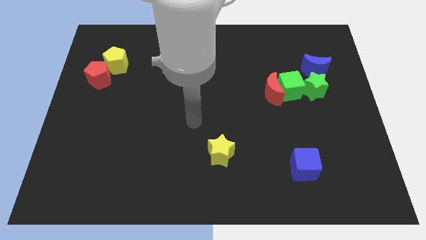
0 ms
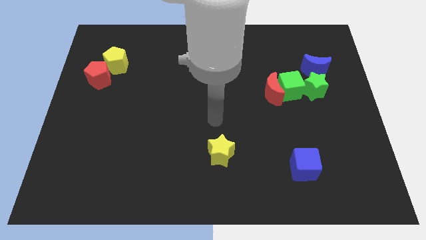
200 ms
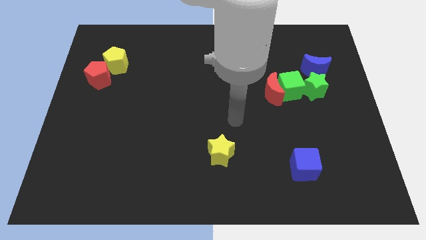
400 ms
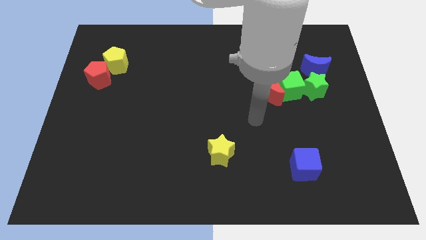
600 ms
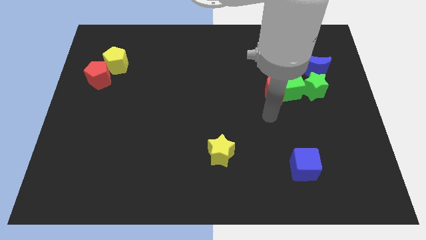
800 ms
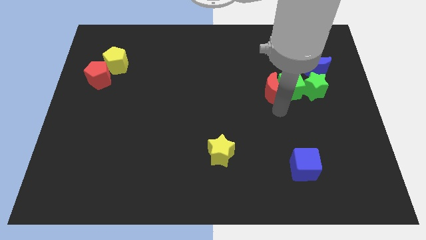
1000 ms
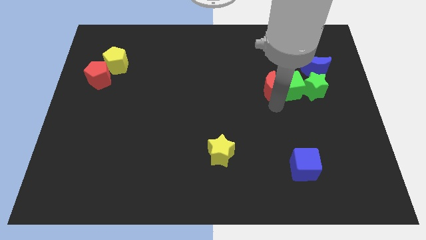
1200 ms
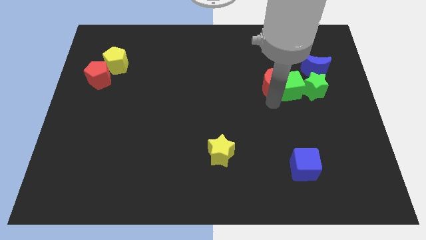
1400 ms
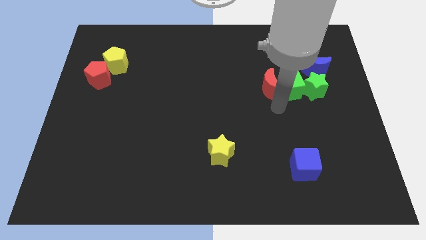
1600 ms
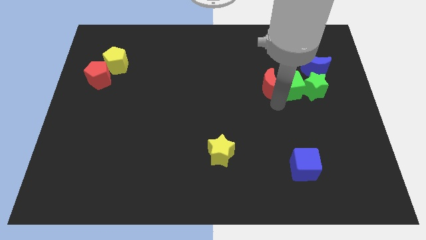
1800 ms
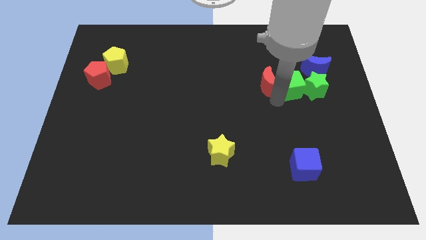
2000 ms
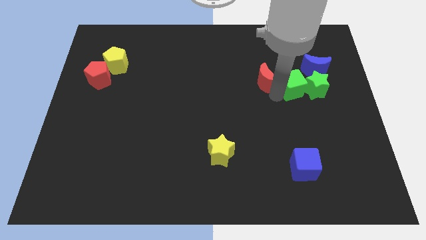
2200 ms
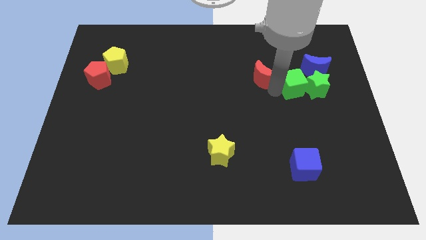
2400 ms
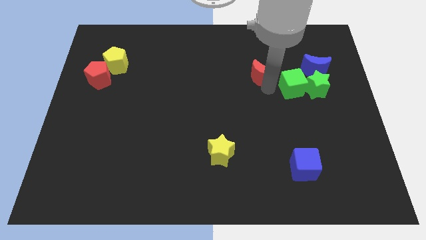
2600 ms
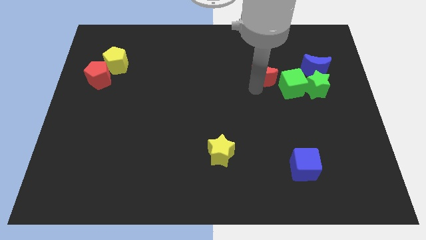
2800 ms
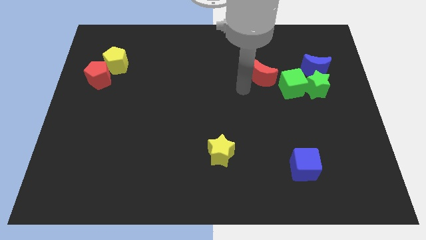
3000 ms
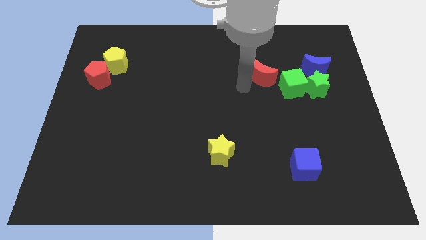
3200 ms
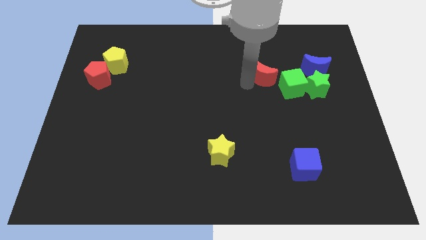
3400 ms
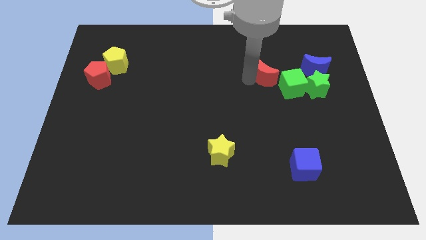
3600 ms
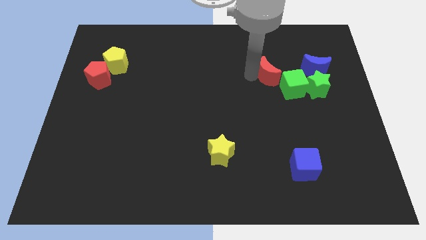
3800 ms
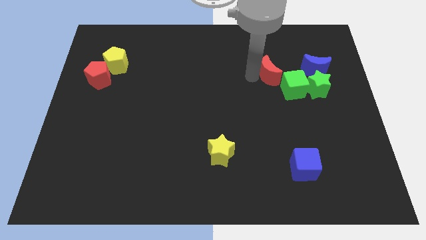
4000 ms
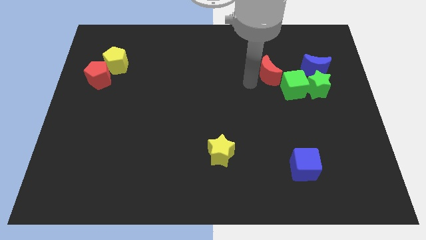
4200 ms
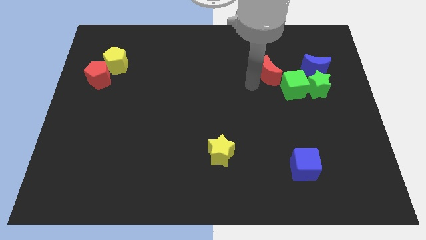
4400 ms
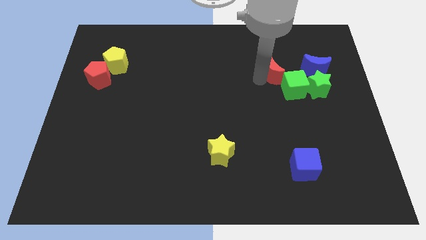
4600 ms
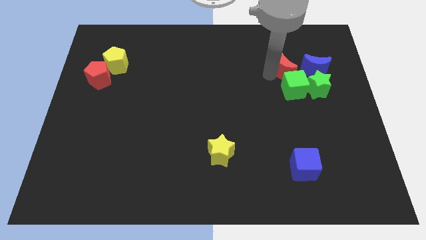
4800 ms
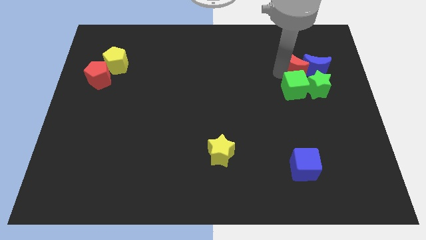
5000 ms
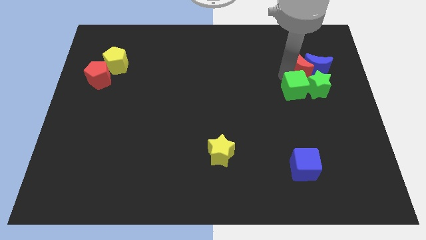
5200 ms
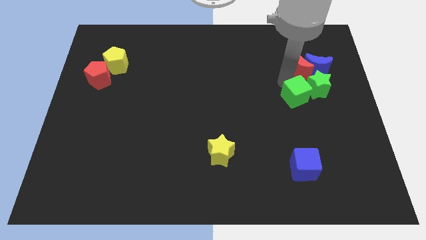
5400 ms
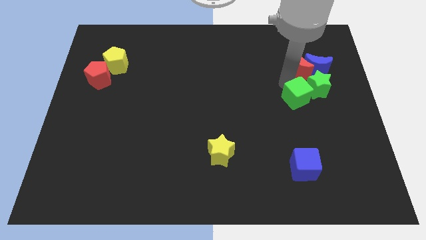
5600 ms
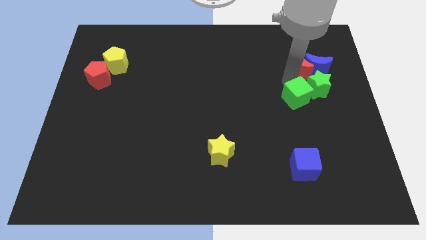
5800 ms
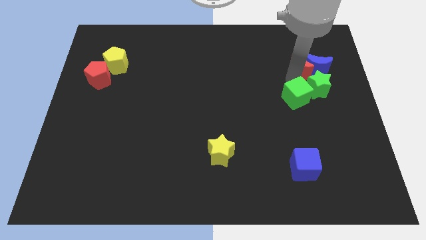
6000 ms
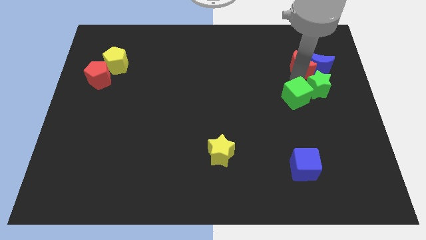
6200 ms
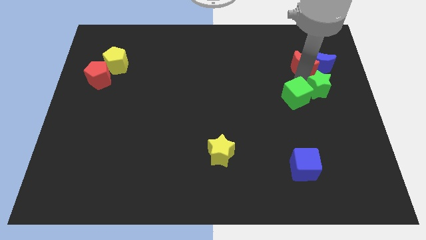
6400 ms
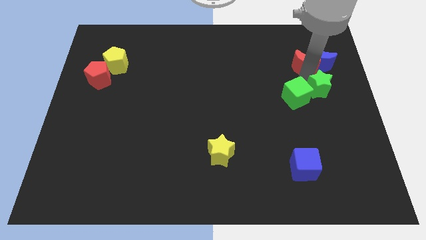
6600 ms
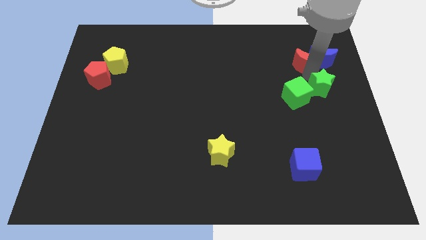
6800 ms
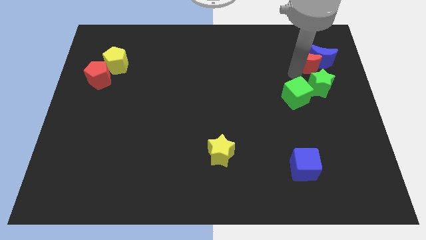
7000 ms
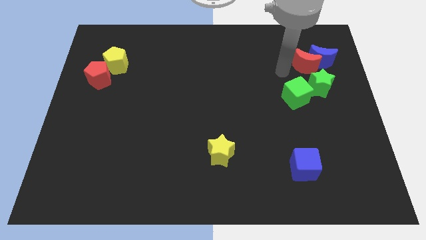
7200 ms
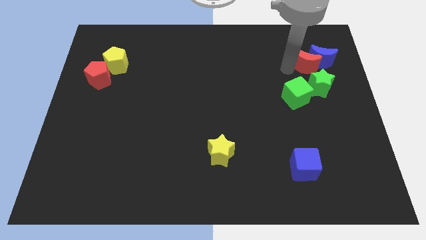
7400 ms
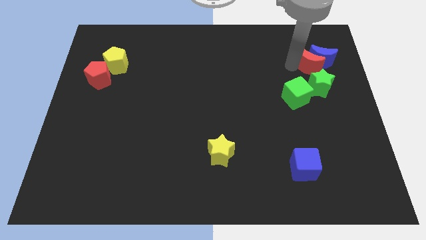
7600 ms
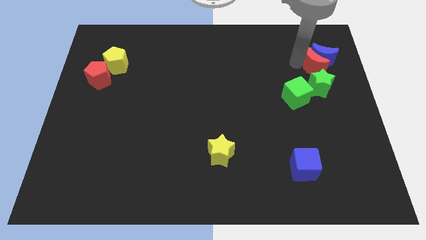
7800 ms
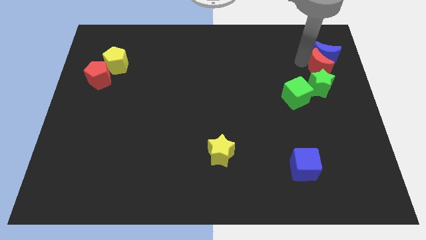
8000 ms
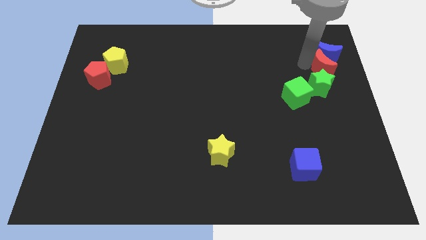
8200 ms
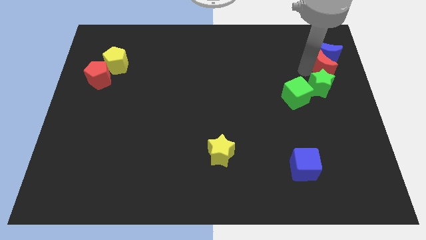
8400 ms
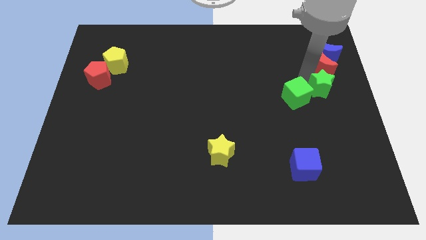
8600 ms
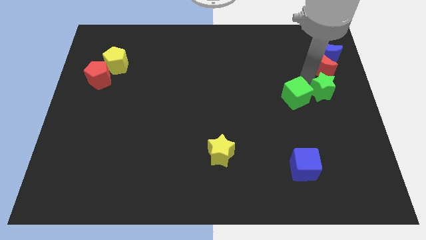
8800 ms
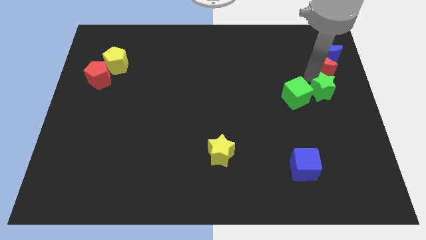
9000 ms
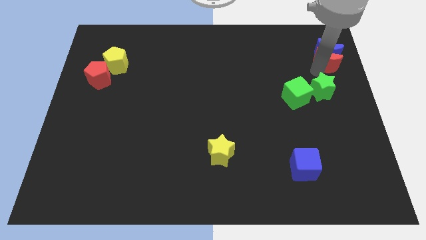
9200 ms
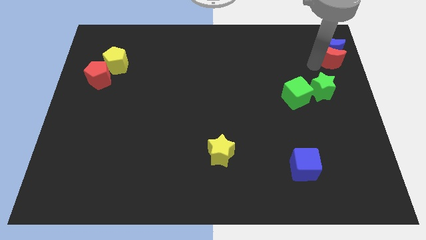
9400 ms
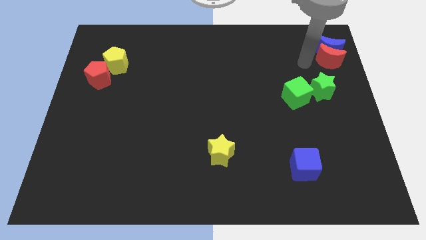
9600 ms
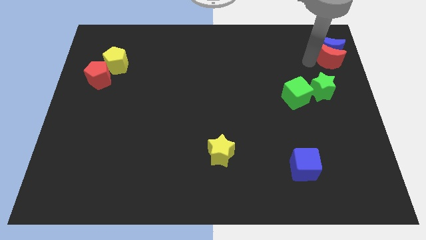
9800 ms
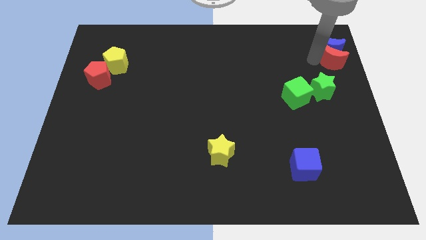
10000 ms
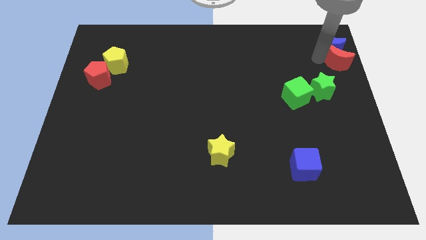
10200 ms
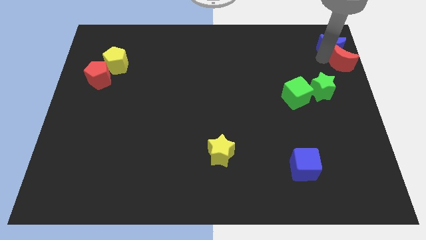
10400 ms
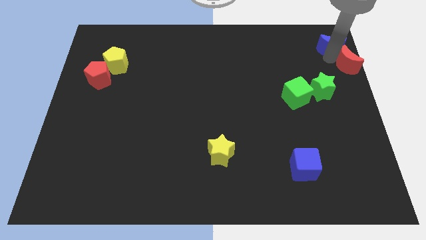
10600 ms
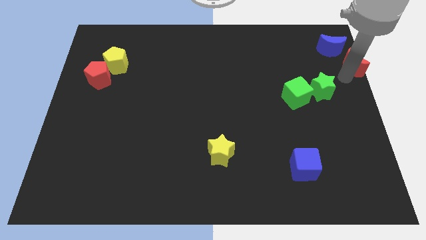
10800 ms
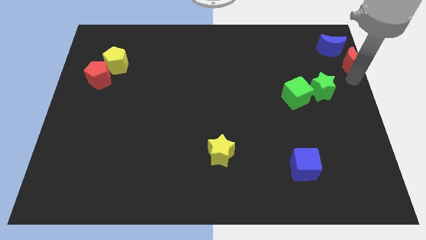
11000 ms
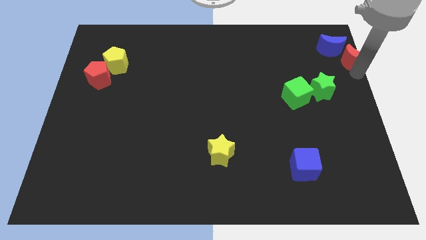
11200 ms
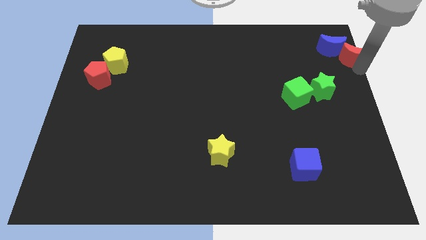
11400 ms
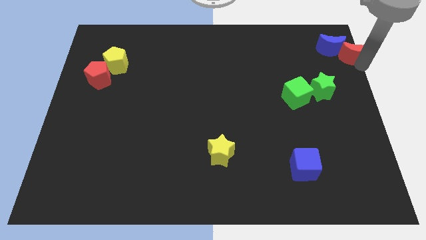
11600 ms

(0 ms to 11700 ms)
move the red moon to the top right
